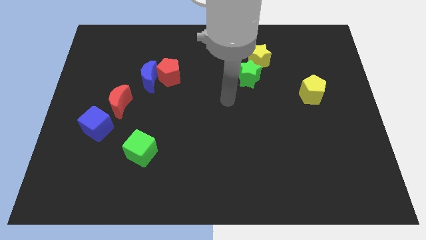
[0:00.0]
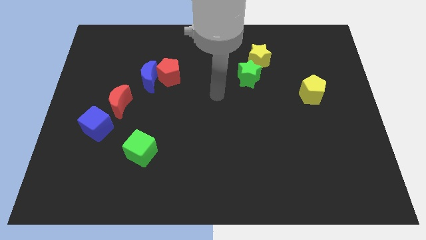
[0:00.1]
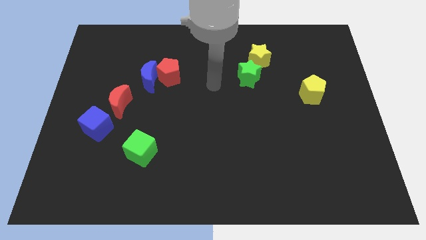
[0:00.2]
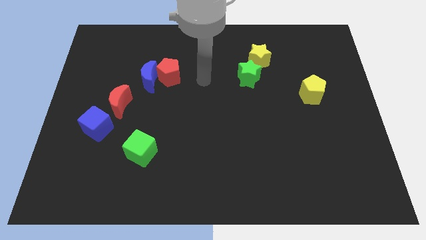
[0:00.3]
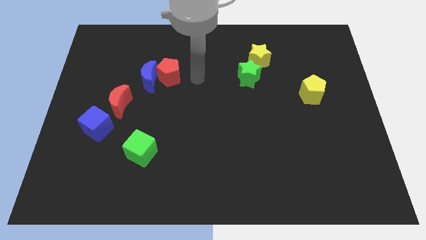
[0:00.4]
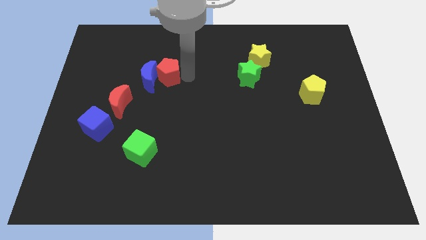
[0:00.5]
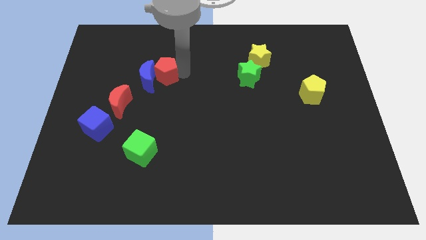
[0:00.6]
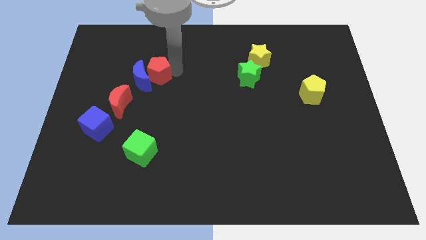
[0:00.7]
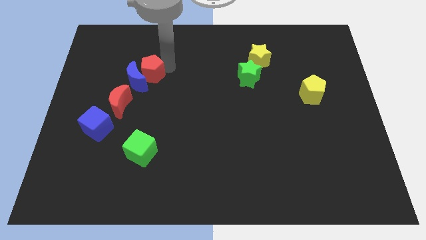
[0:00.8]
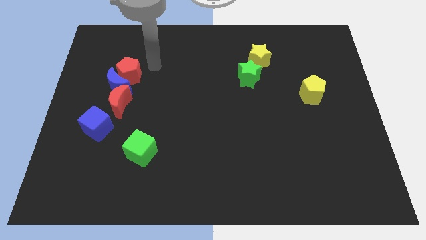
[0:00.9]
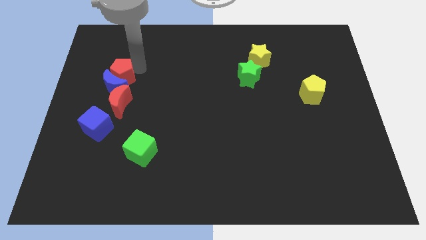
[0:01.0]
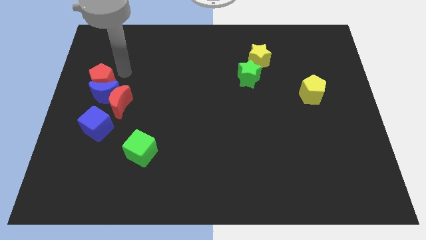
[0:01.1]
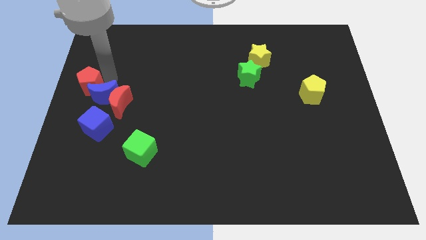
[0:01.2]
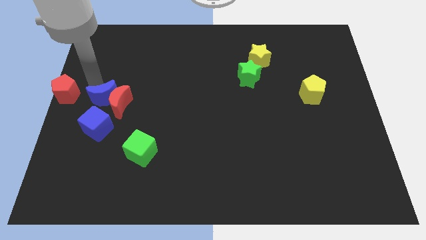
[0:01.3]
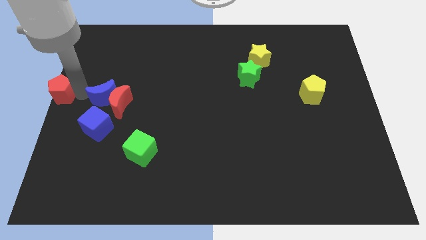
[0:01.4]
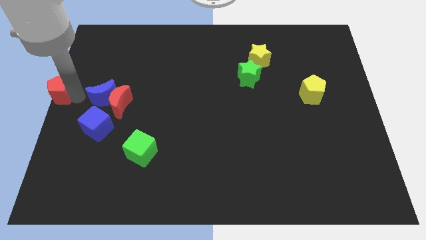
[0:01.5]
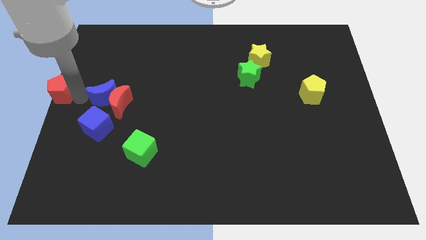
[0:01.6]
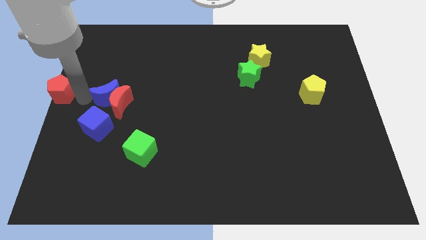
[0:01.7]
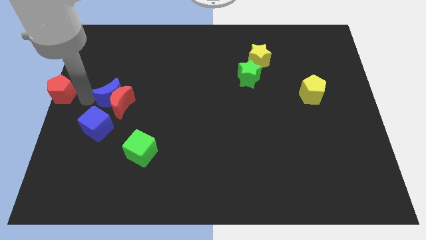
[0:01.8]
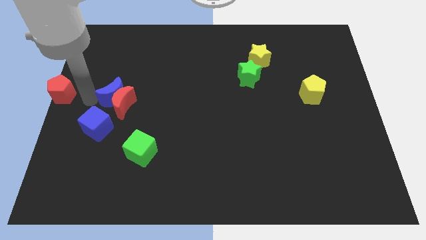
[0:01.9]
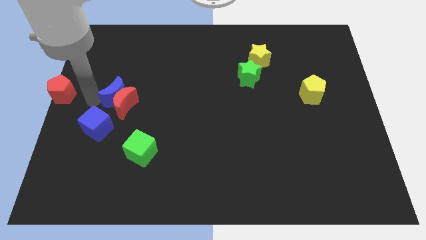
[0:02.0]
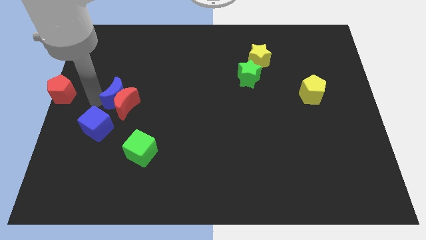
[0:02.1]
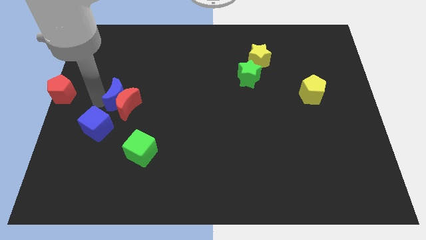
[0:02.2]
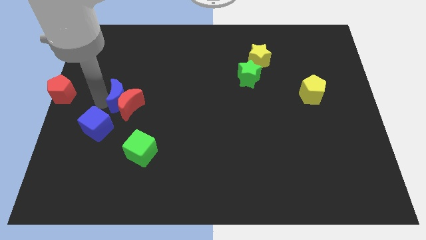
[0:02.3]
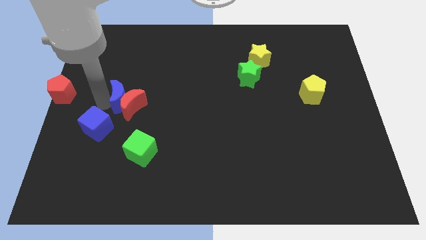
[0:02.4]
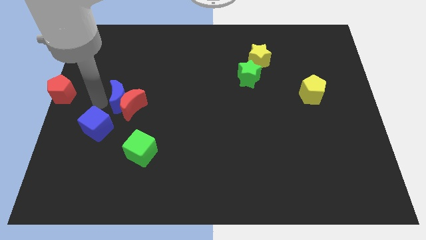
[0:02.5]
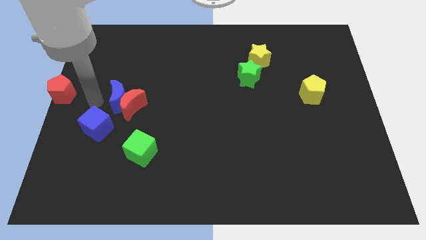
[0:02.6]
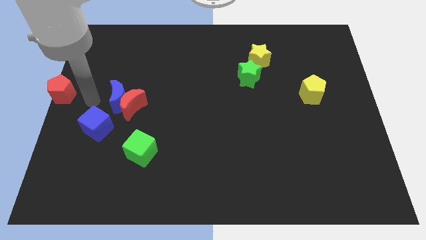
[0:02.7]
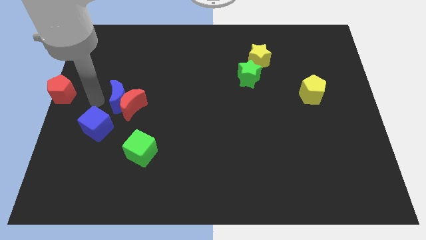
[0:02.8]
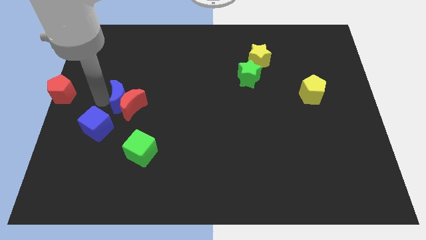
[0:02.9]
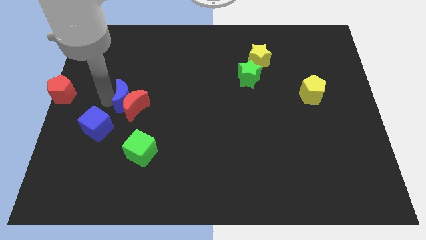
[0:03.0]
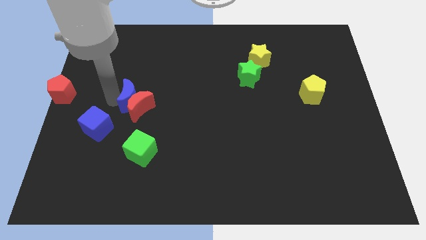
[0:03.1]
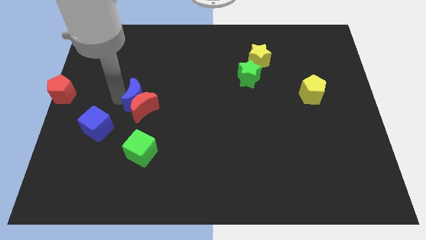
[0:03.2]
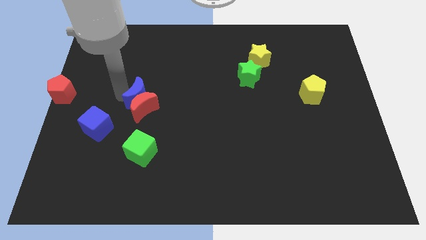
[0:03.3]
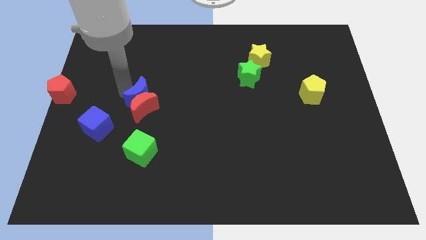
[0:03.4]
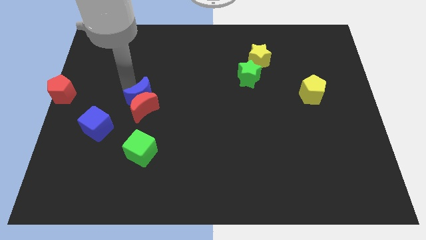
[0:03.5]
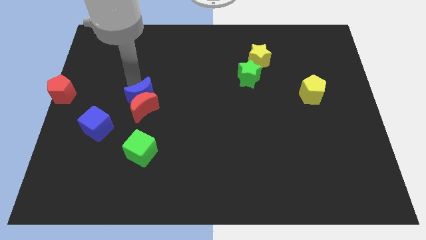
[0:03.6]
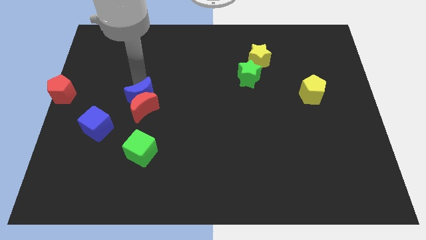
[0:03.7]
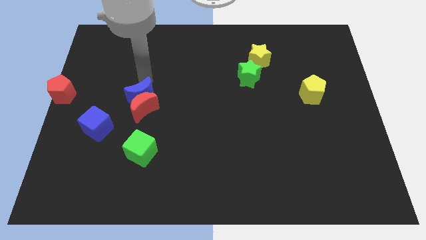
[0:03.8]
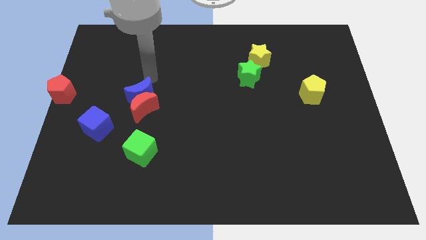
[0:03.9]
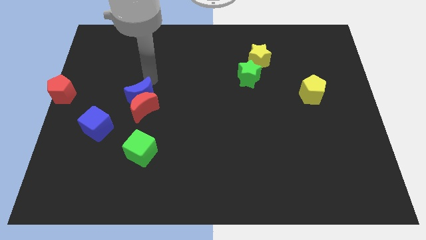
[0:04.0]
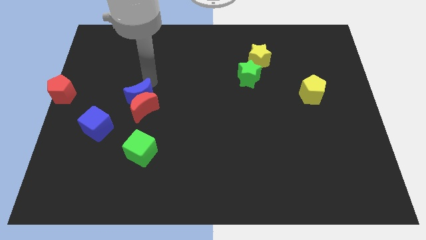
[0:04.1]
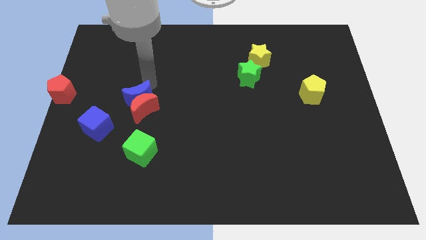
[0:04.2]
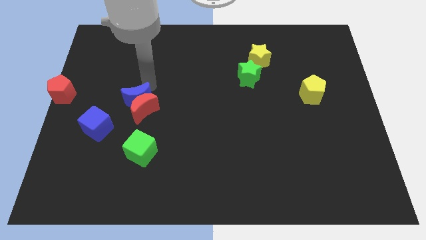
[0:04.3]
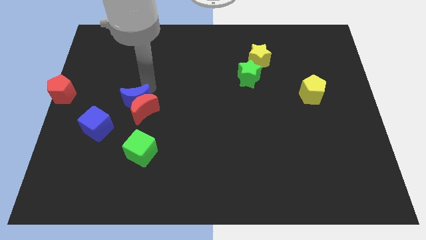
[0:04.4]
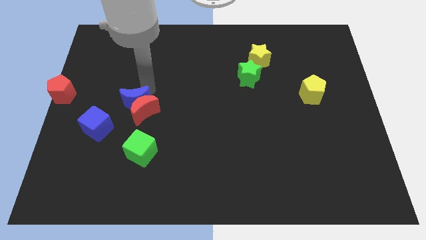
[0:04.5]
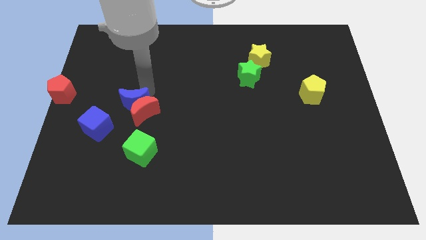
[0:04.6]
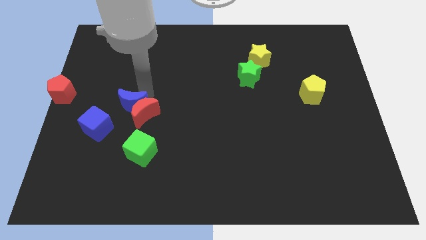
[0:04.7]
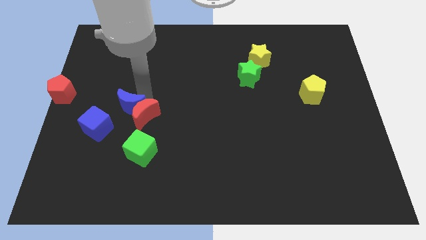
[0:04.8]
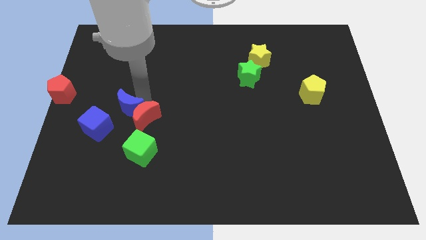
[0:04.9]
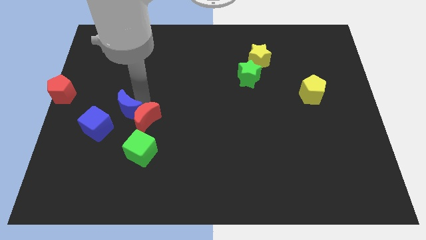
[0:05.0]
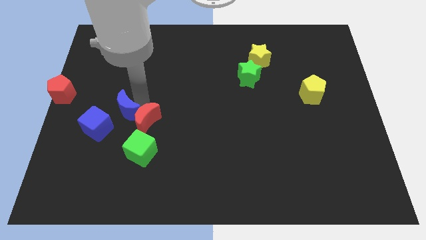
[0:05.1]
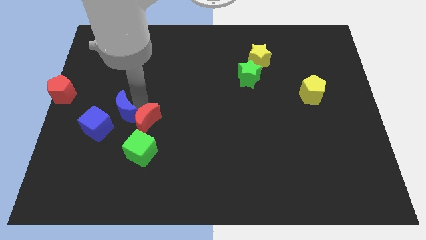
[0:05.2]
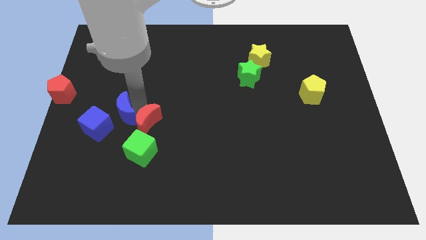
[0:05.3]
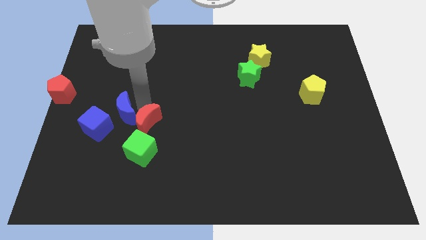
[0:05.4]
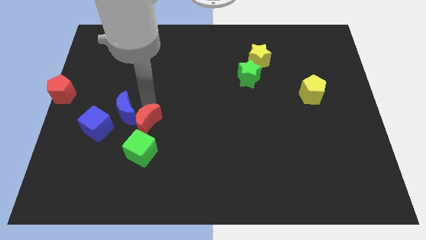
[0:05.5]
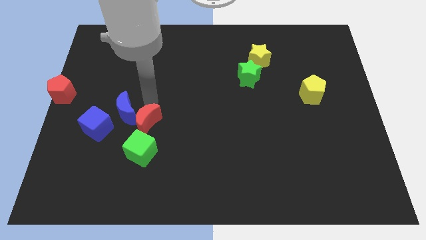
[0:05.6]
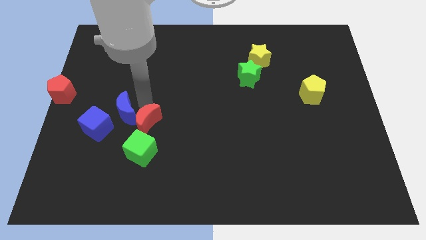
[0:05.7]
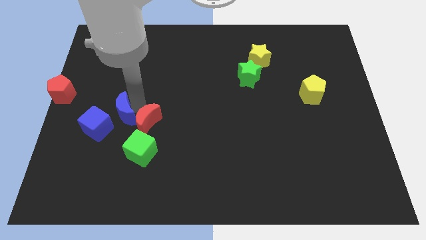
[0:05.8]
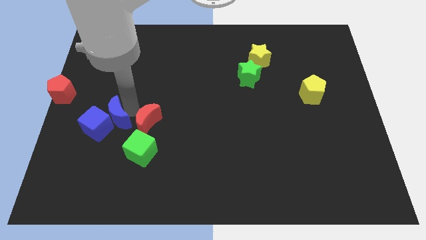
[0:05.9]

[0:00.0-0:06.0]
move the blue moon towards the blue cube
